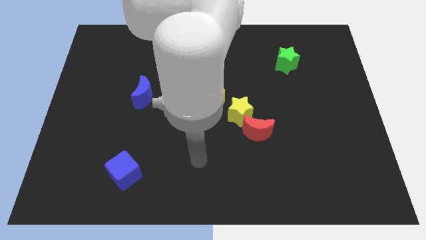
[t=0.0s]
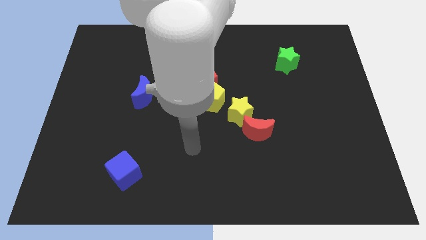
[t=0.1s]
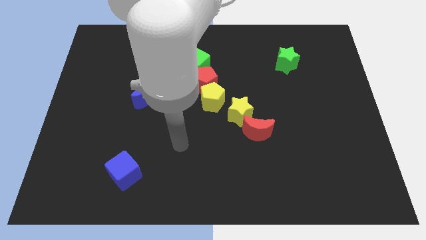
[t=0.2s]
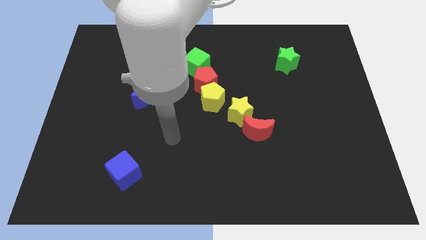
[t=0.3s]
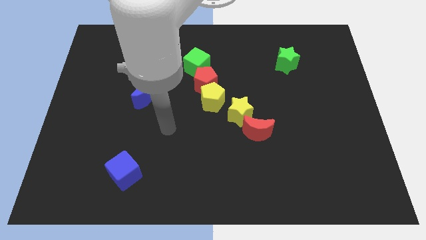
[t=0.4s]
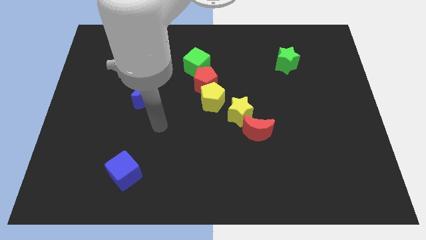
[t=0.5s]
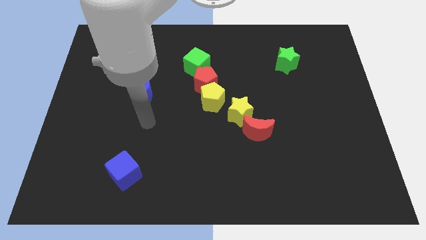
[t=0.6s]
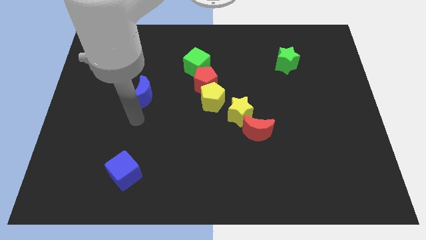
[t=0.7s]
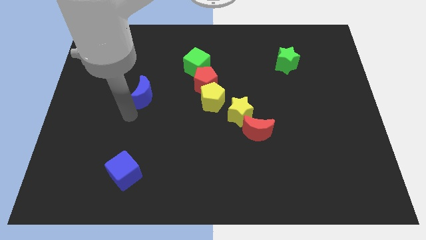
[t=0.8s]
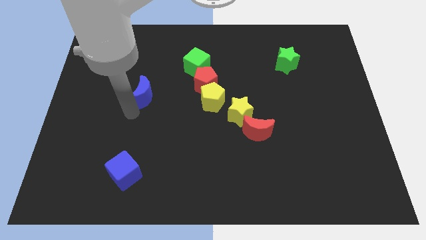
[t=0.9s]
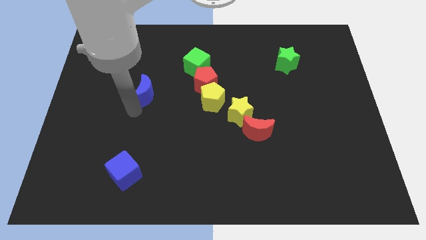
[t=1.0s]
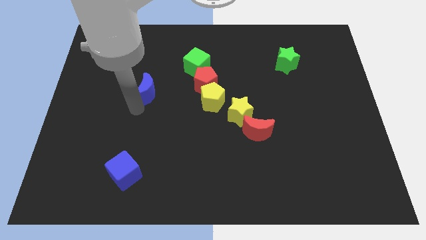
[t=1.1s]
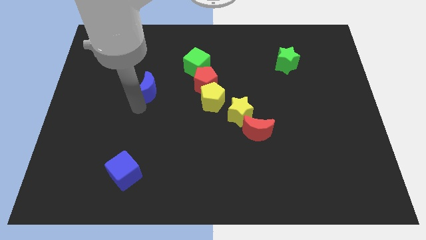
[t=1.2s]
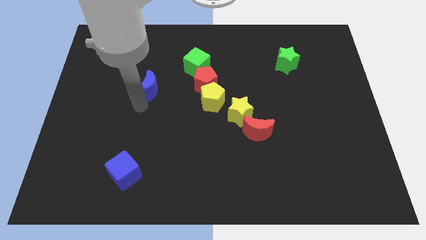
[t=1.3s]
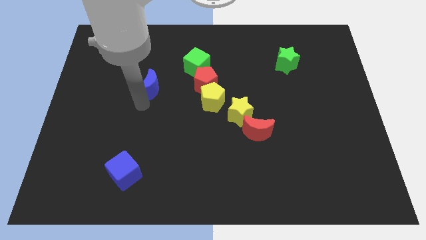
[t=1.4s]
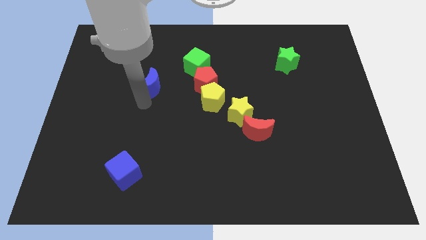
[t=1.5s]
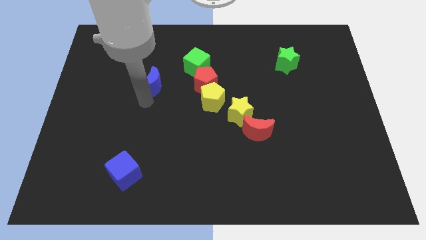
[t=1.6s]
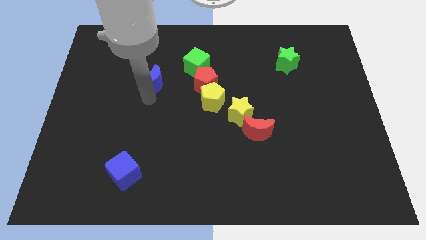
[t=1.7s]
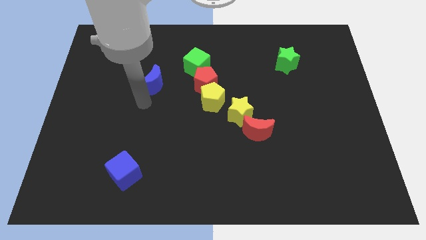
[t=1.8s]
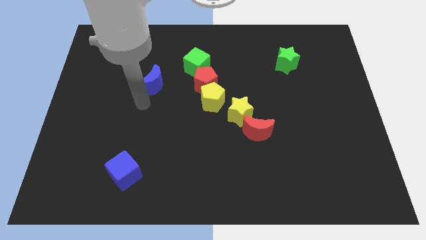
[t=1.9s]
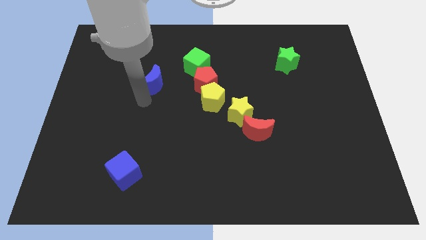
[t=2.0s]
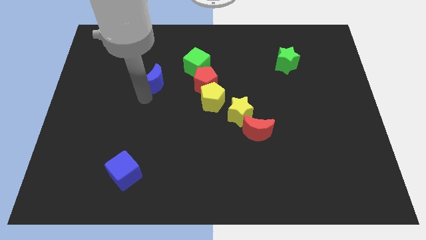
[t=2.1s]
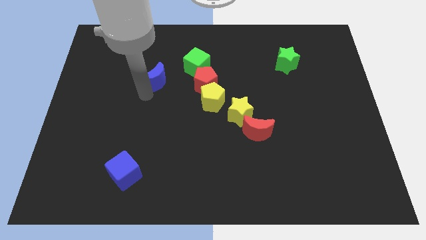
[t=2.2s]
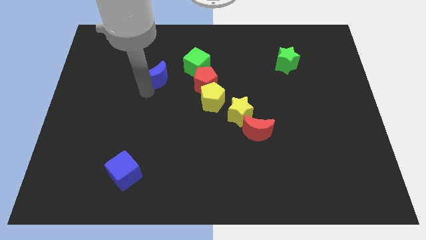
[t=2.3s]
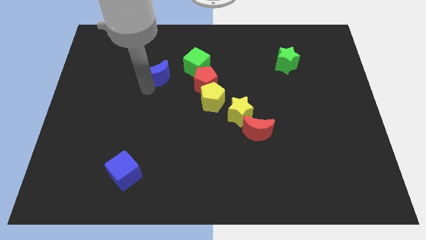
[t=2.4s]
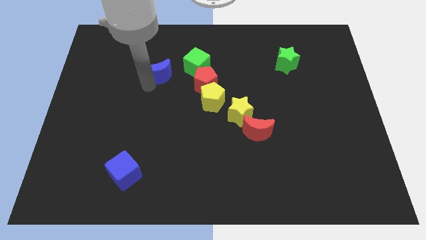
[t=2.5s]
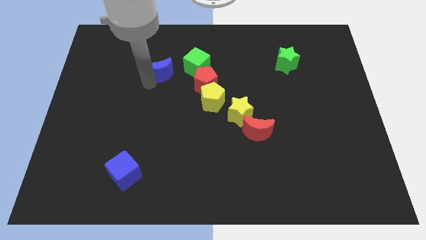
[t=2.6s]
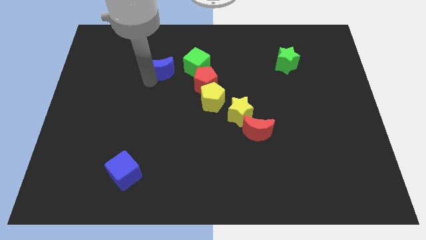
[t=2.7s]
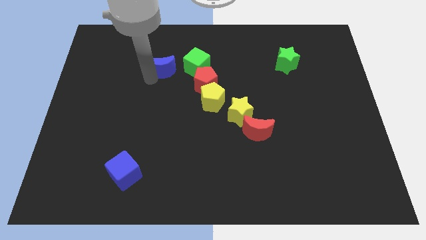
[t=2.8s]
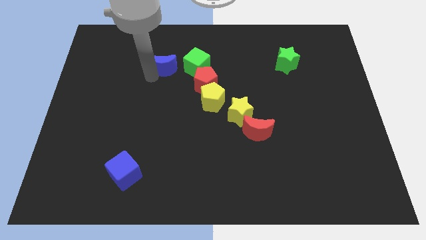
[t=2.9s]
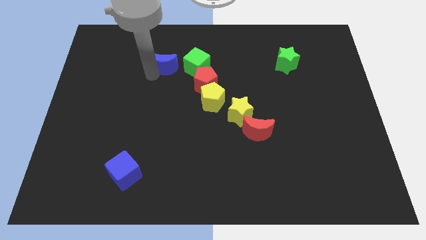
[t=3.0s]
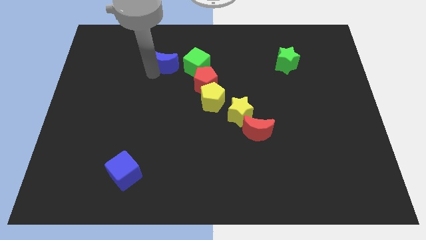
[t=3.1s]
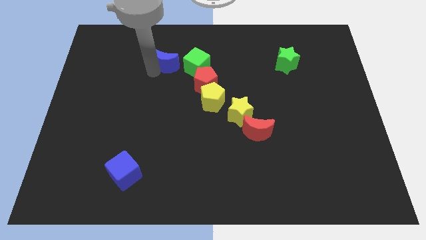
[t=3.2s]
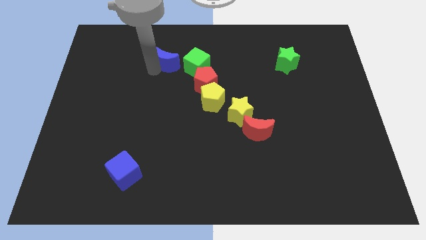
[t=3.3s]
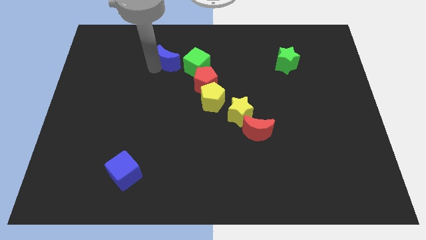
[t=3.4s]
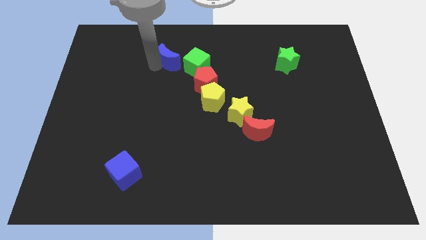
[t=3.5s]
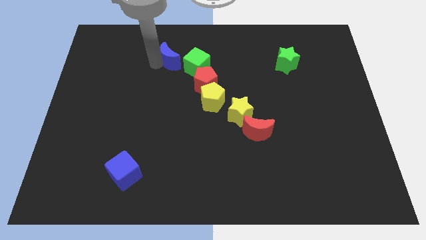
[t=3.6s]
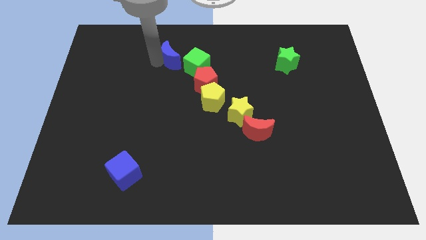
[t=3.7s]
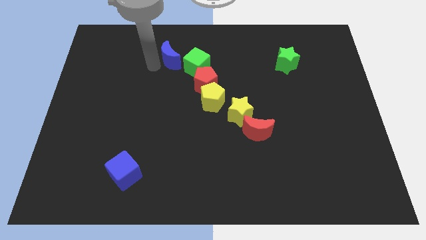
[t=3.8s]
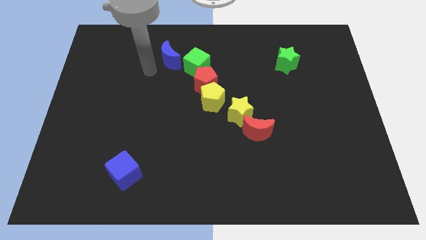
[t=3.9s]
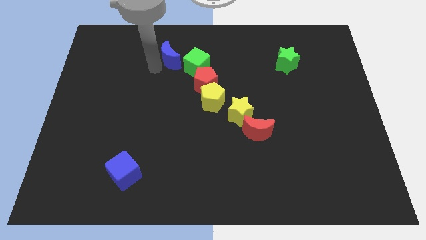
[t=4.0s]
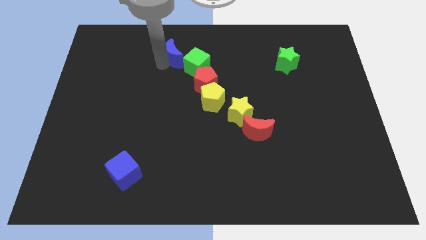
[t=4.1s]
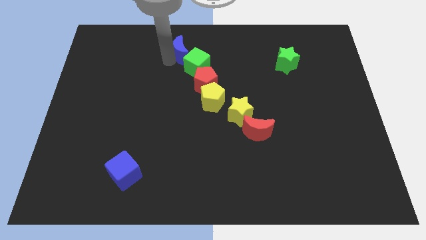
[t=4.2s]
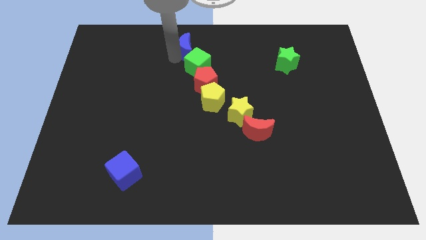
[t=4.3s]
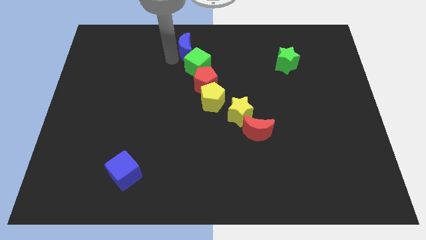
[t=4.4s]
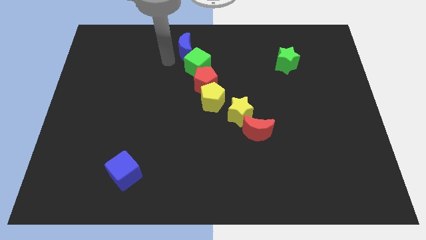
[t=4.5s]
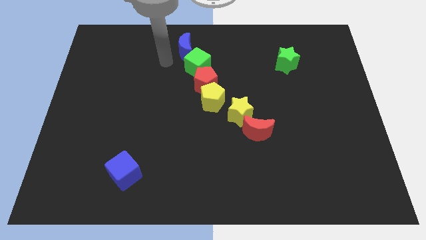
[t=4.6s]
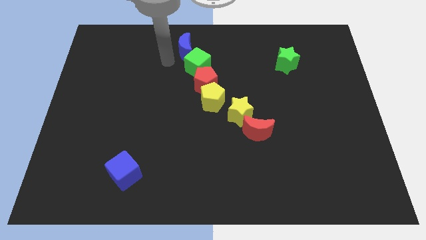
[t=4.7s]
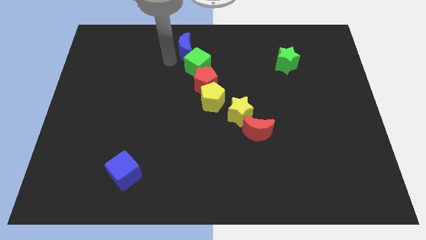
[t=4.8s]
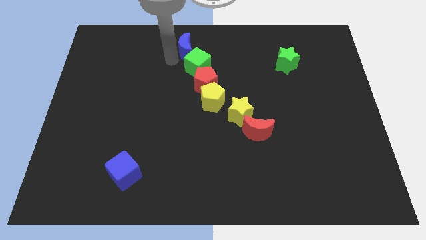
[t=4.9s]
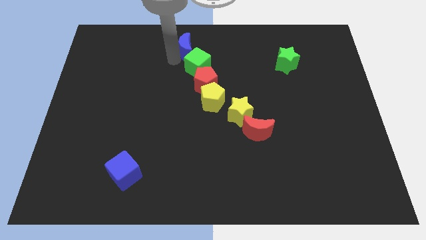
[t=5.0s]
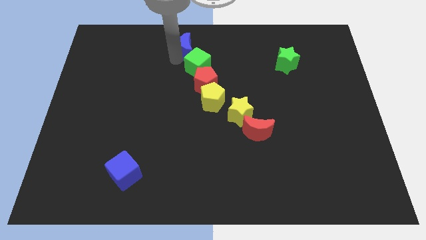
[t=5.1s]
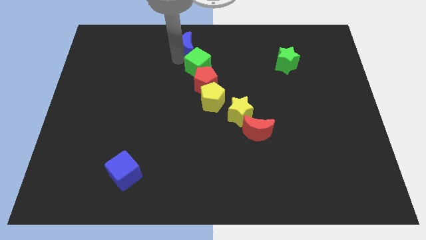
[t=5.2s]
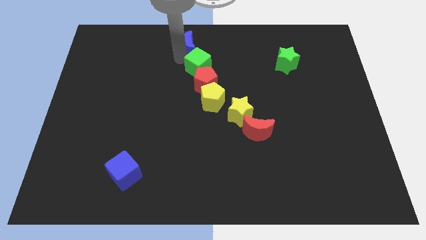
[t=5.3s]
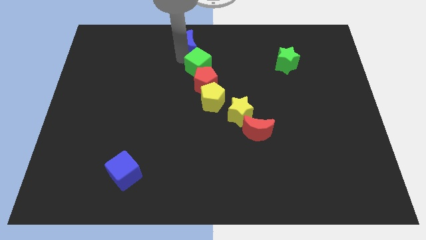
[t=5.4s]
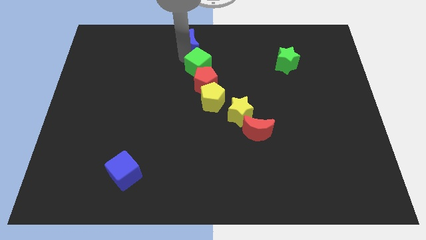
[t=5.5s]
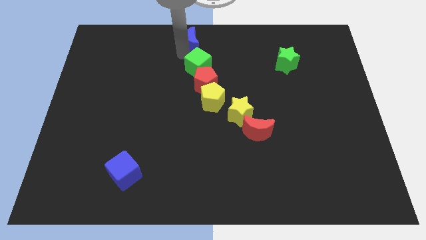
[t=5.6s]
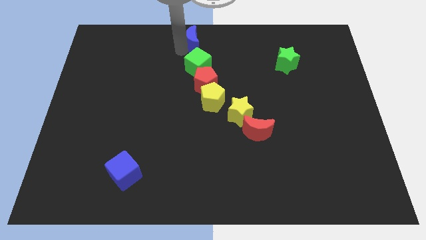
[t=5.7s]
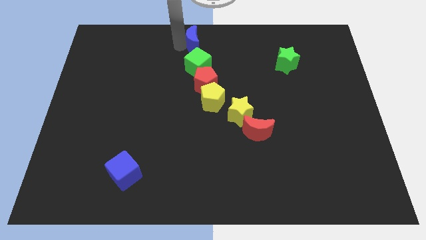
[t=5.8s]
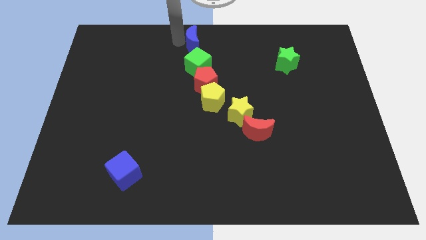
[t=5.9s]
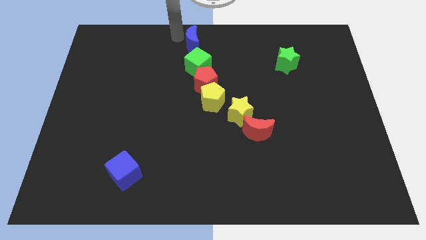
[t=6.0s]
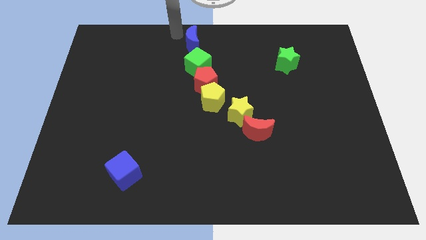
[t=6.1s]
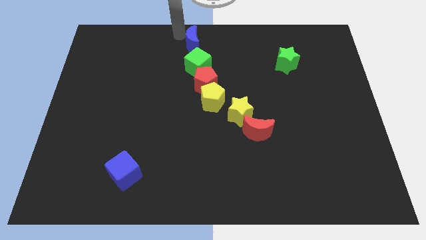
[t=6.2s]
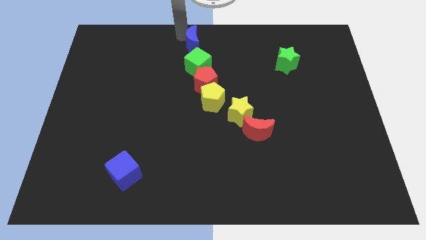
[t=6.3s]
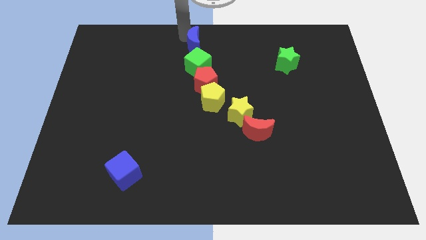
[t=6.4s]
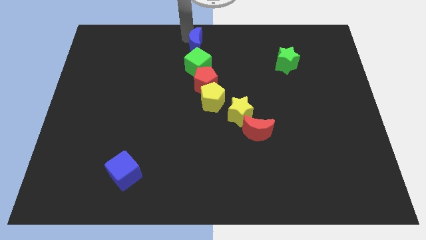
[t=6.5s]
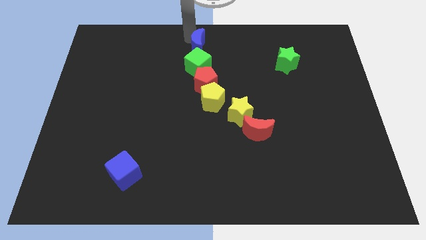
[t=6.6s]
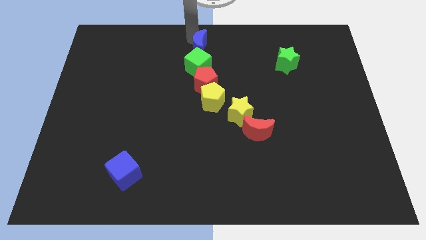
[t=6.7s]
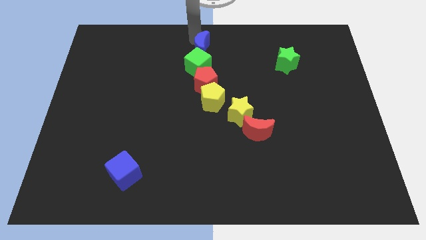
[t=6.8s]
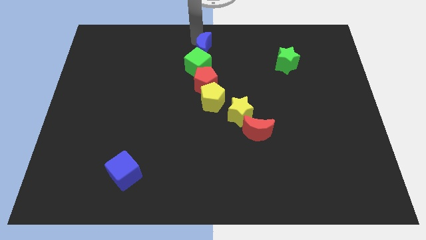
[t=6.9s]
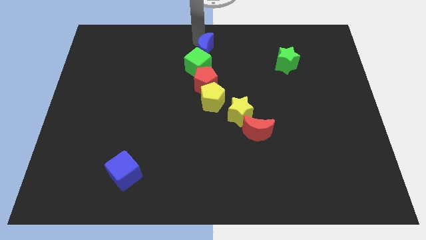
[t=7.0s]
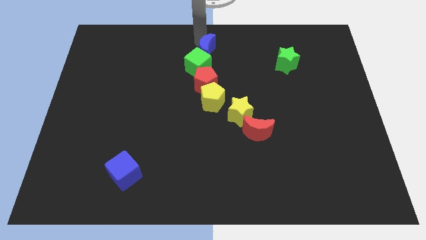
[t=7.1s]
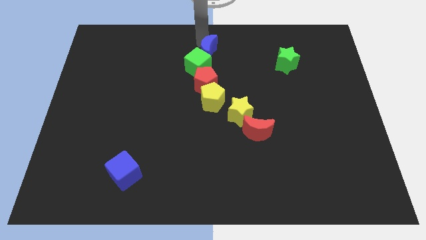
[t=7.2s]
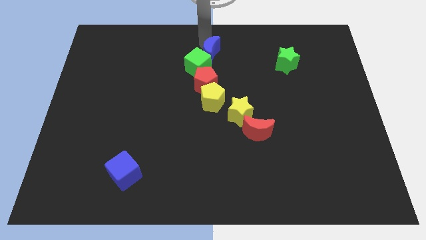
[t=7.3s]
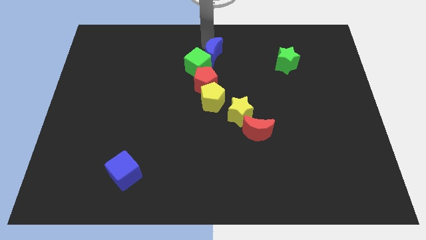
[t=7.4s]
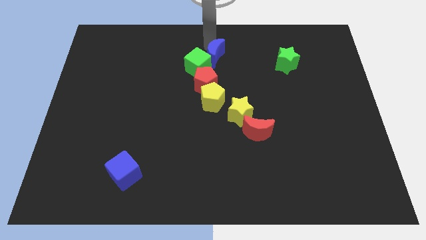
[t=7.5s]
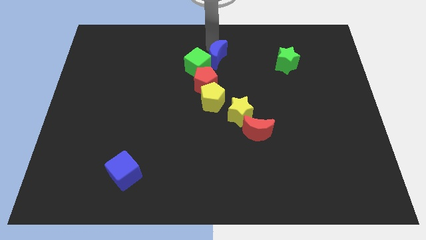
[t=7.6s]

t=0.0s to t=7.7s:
slide the blue moon to the top right of the red pentagon

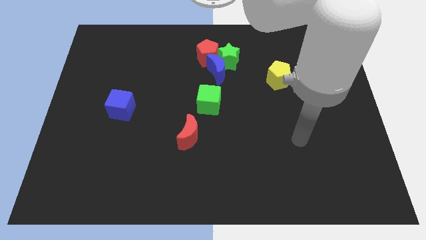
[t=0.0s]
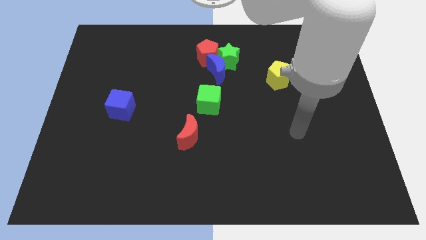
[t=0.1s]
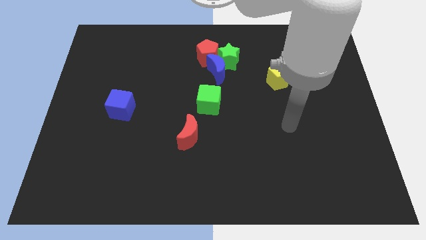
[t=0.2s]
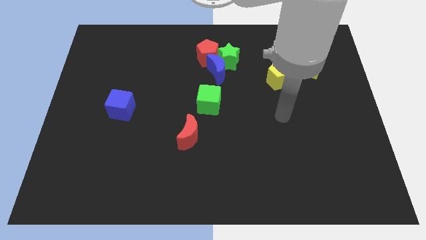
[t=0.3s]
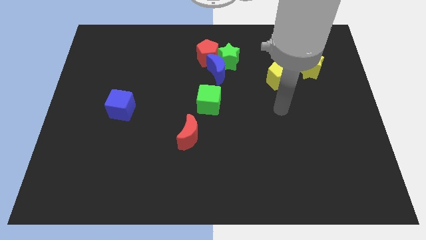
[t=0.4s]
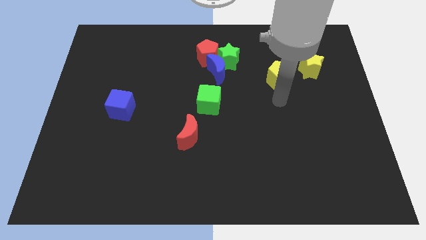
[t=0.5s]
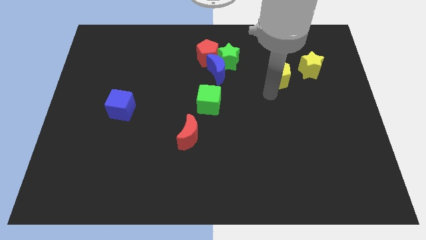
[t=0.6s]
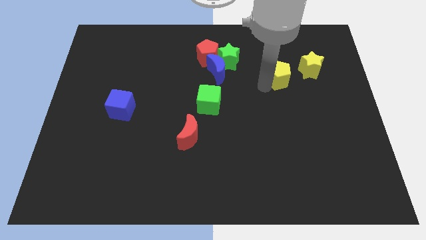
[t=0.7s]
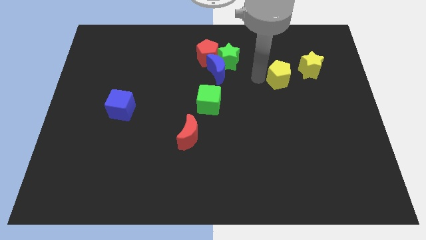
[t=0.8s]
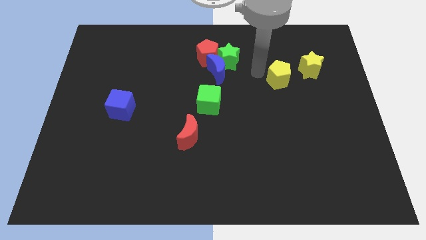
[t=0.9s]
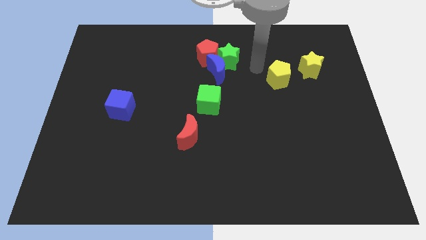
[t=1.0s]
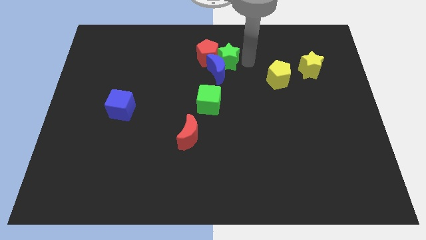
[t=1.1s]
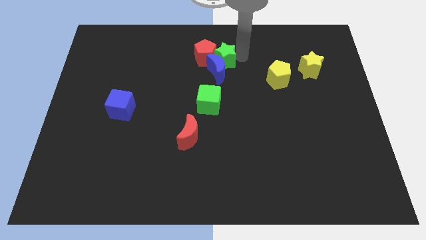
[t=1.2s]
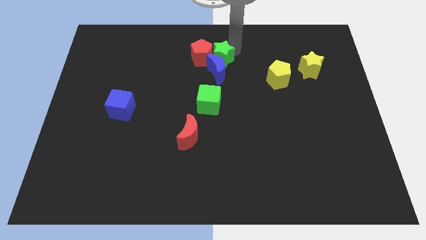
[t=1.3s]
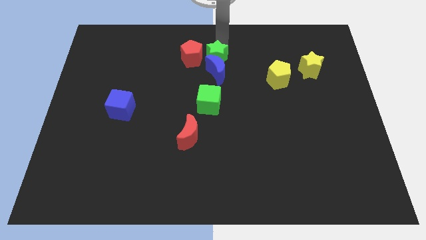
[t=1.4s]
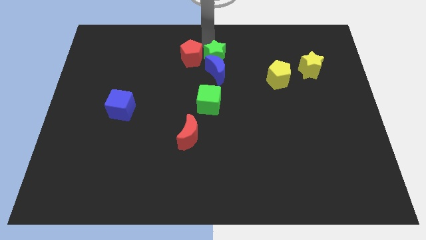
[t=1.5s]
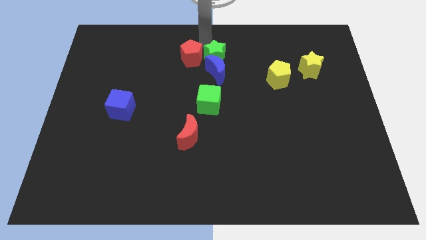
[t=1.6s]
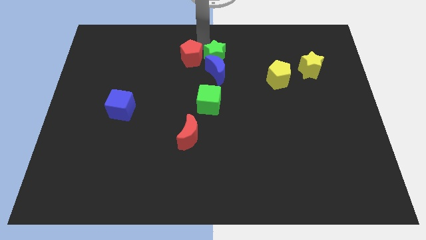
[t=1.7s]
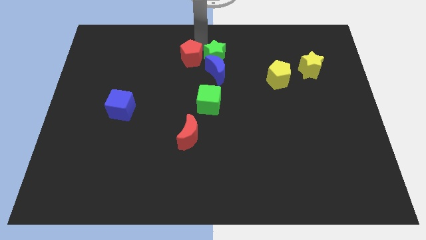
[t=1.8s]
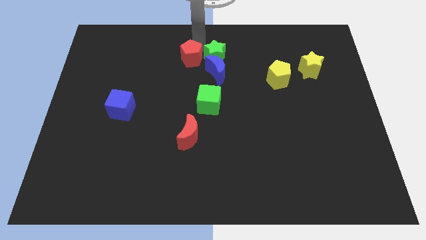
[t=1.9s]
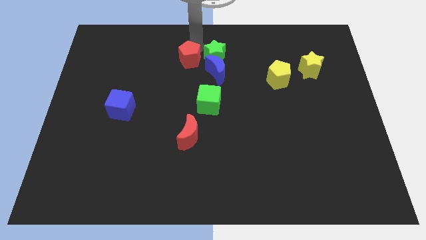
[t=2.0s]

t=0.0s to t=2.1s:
slide the red pentagon to the left side of the blue moon
